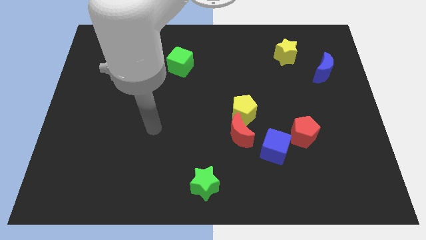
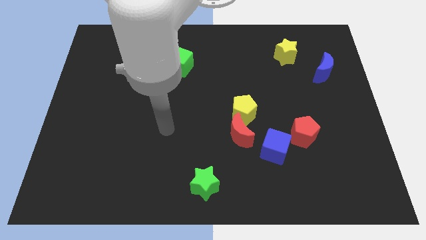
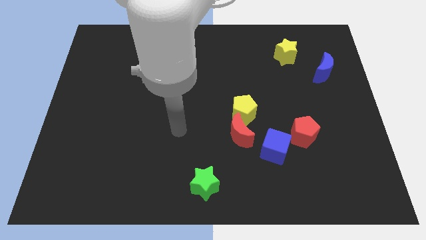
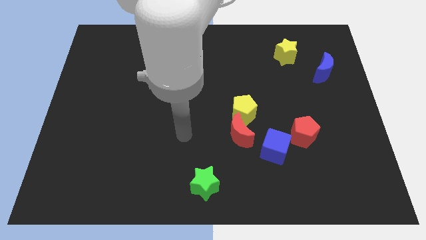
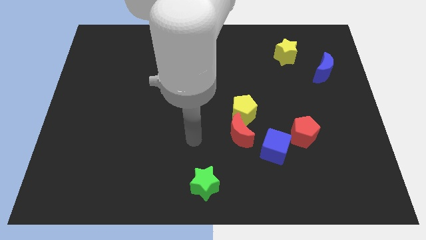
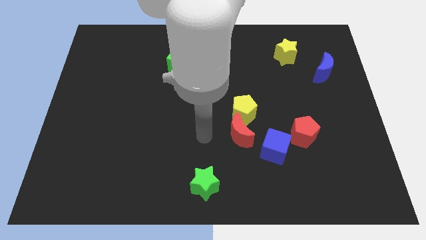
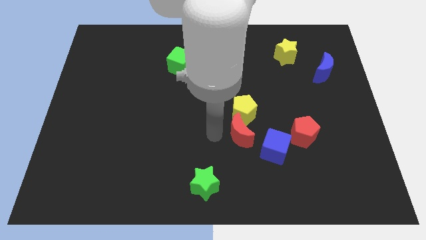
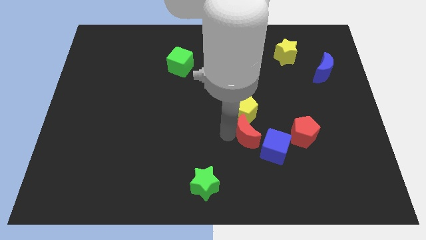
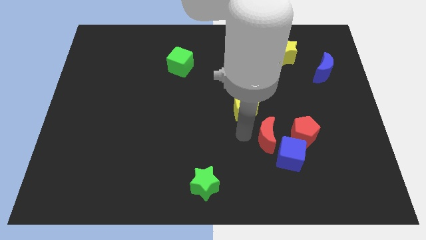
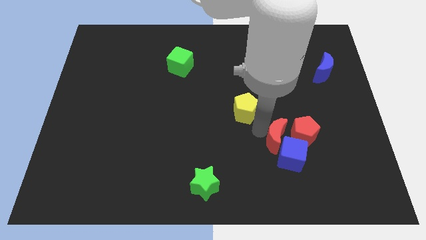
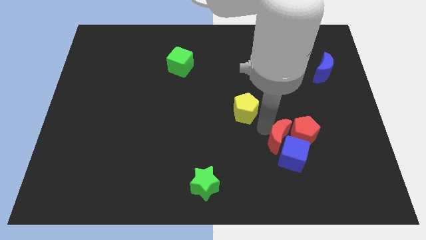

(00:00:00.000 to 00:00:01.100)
pull the yellow pentagon apart from the red moon

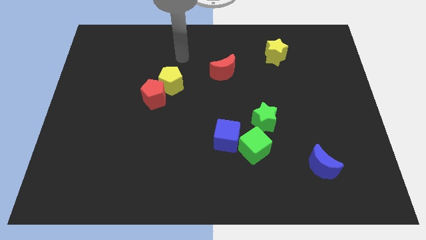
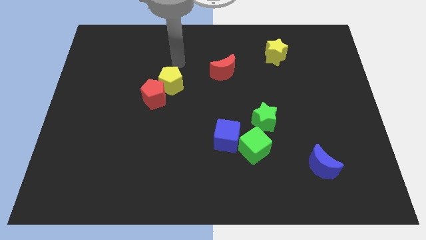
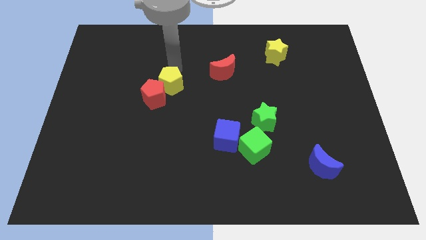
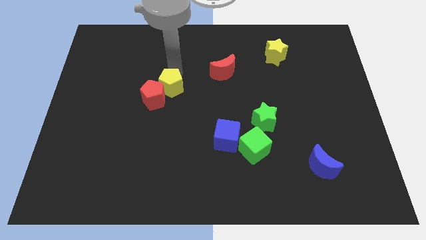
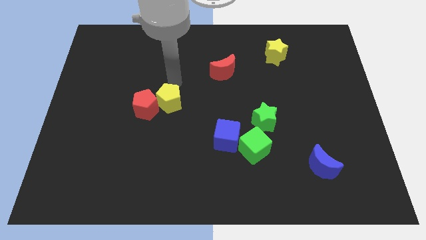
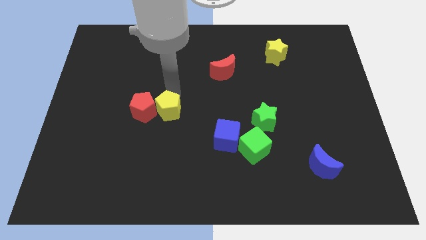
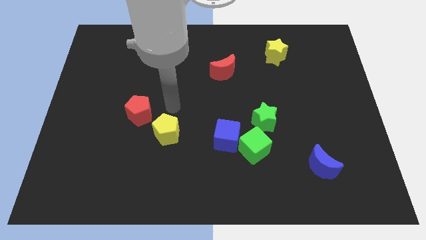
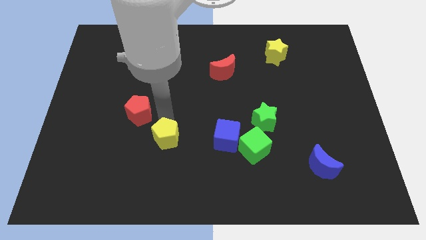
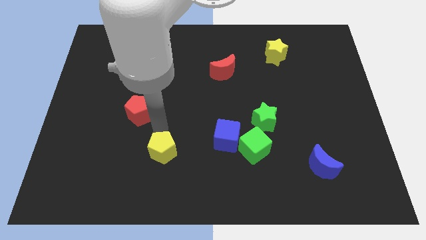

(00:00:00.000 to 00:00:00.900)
separate the red pentagon from the yellow pentagon

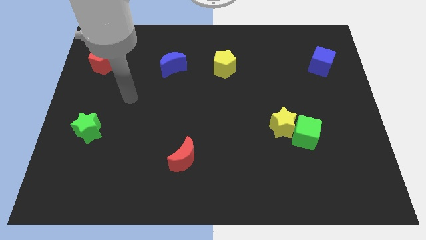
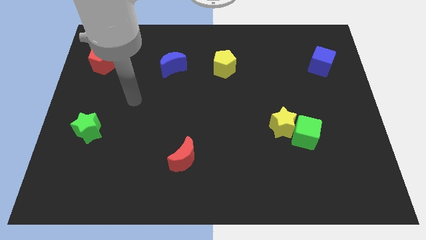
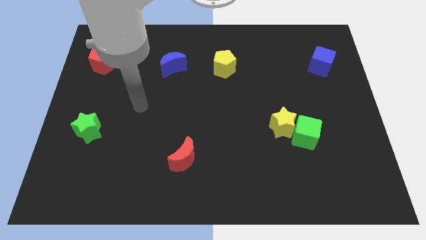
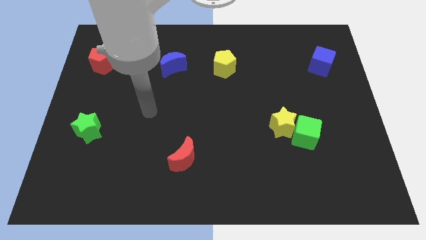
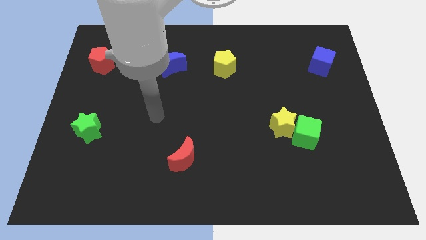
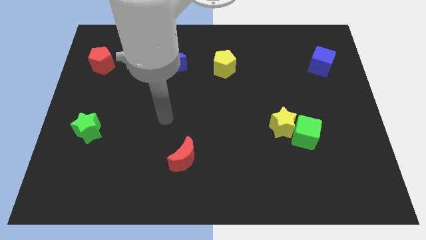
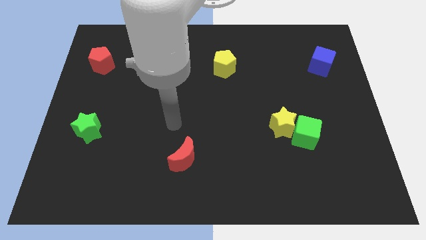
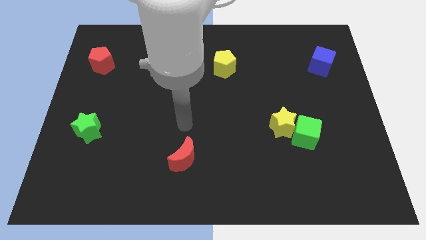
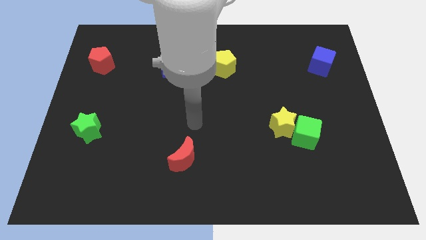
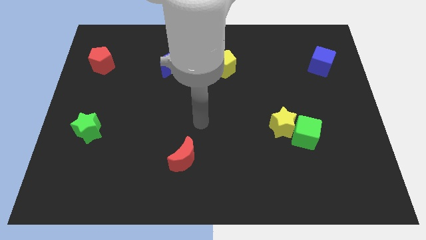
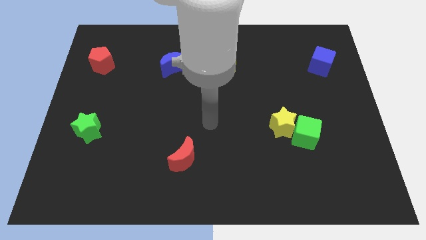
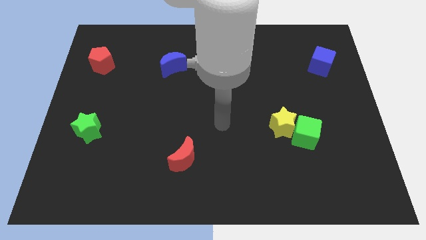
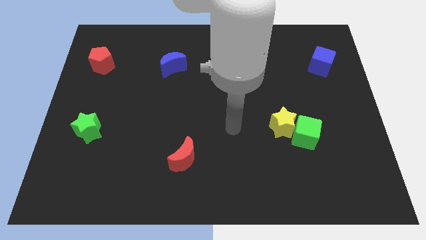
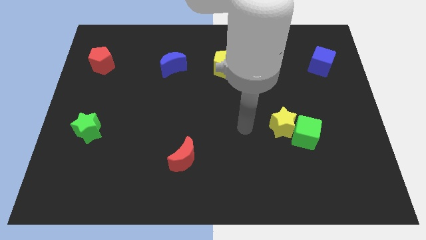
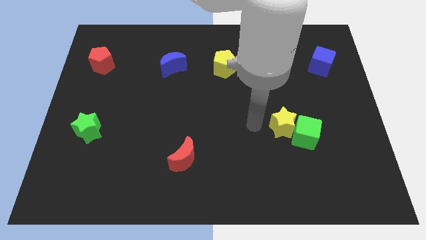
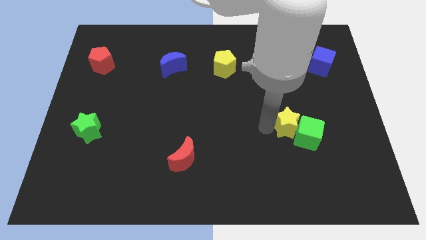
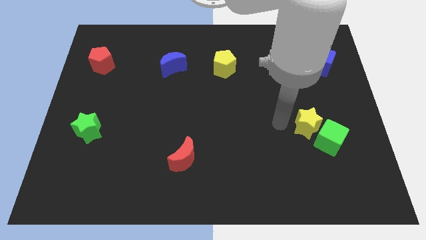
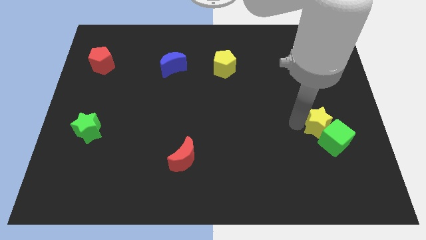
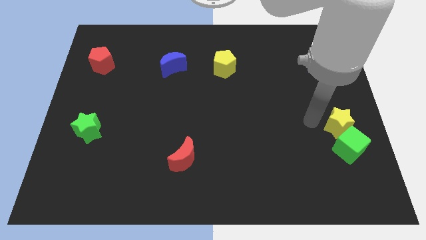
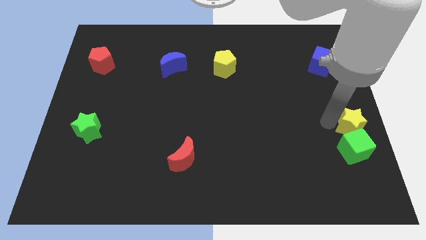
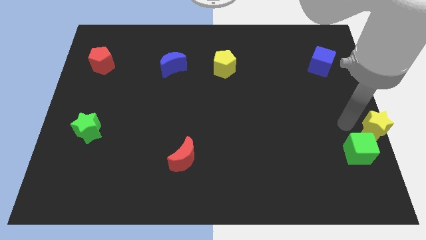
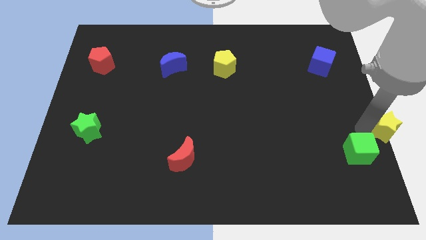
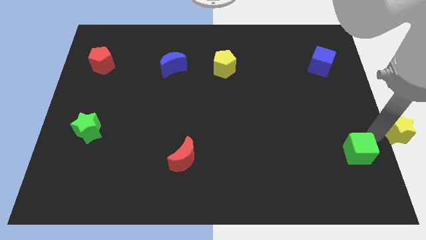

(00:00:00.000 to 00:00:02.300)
move the green cube away from the yellow star

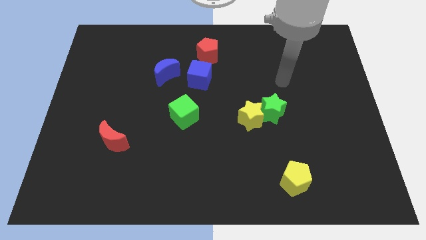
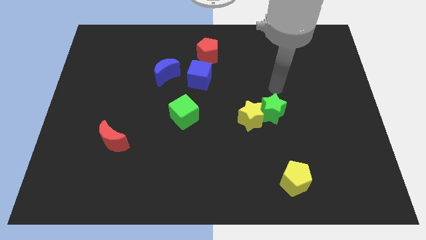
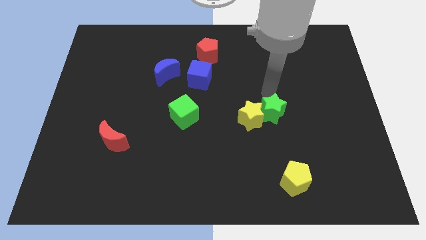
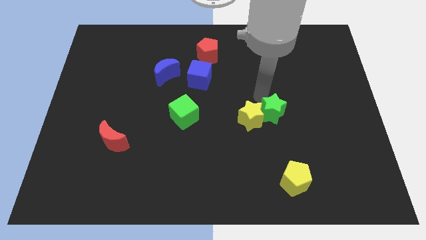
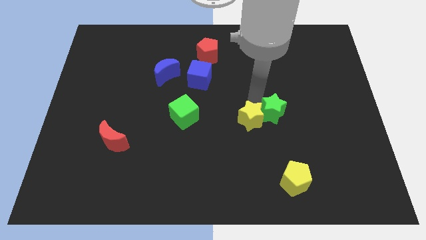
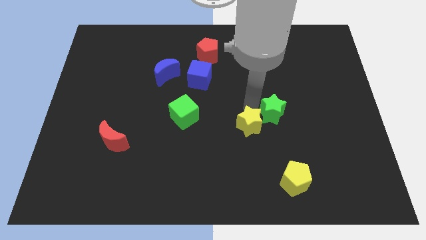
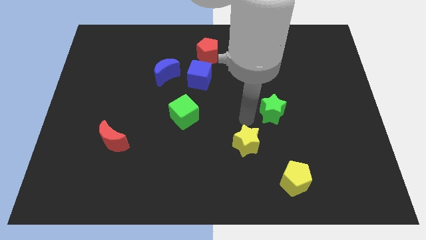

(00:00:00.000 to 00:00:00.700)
separate the green star from the yellow star

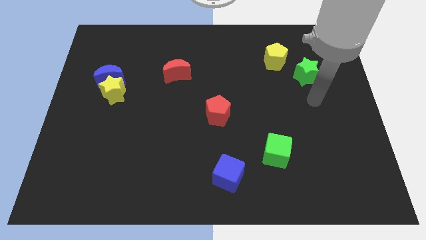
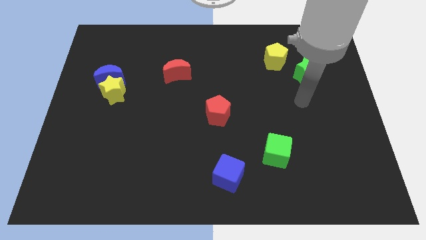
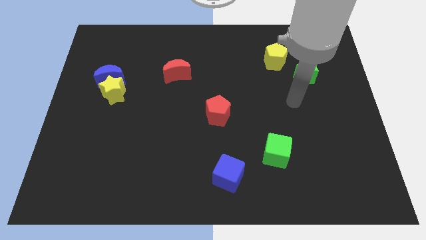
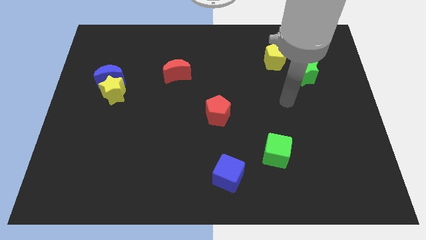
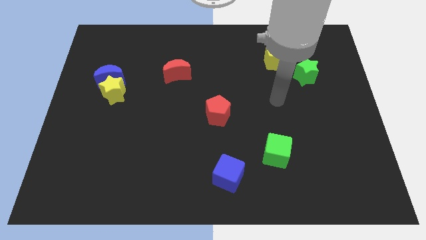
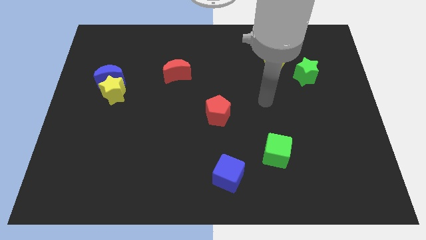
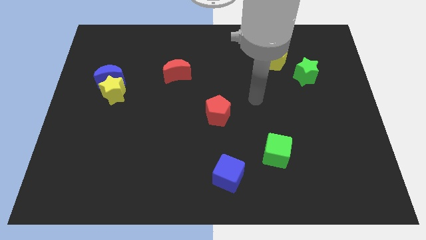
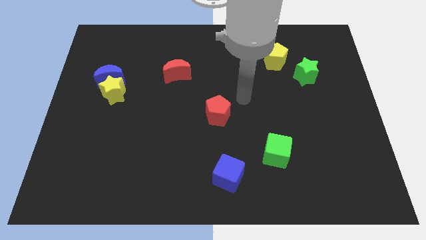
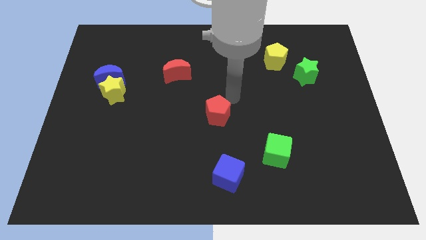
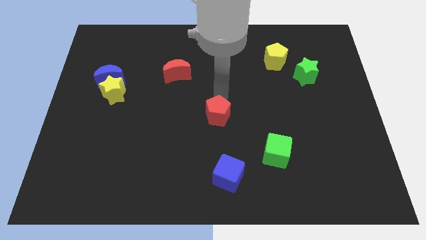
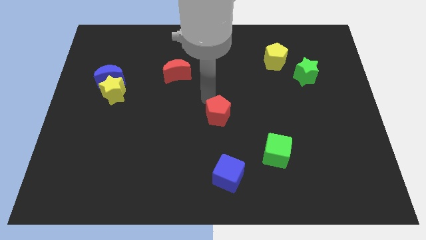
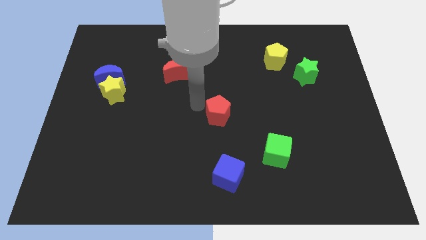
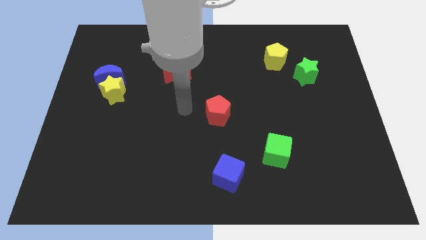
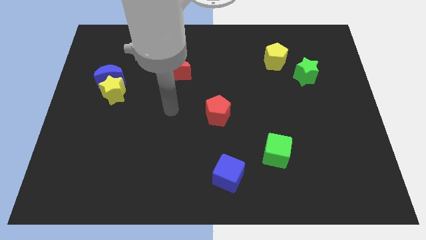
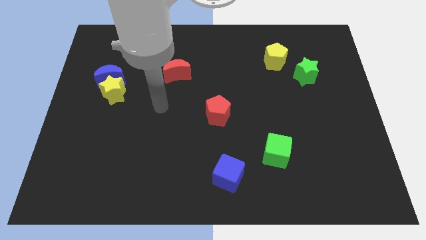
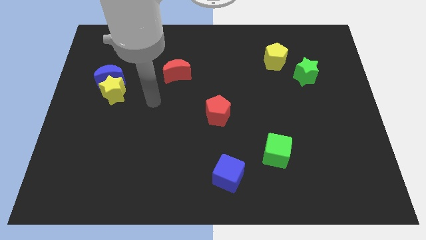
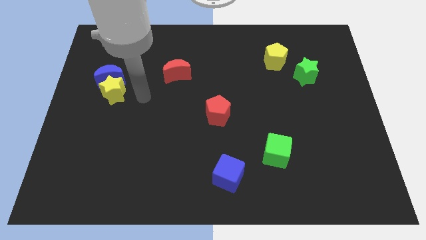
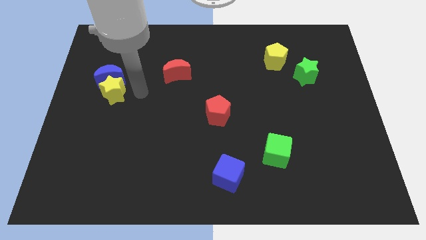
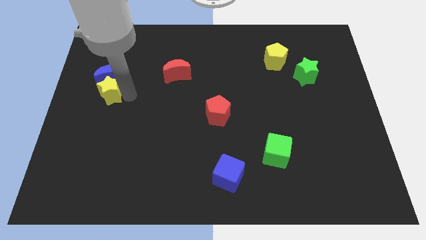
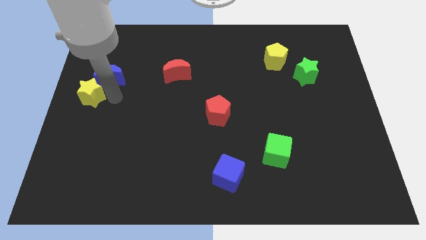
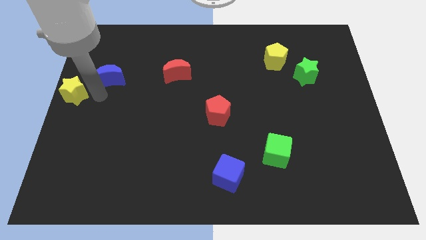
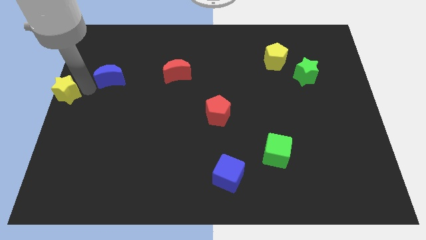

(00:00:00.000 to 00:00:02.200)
move the blue moon away from the yellow star

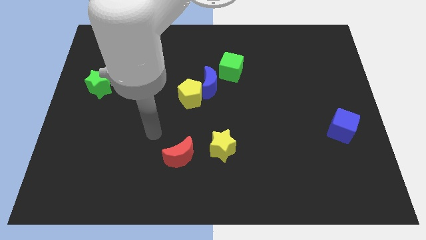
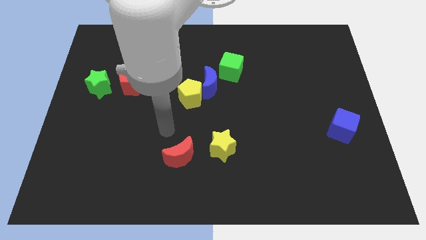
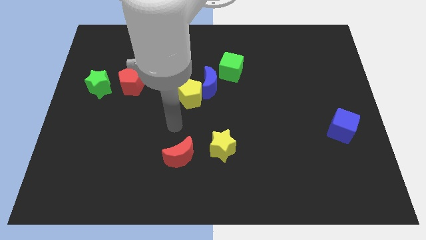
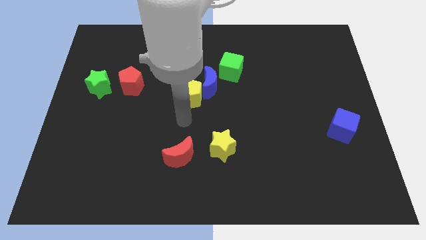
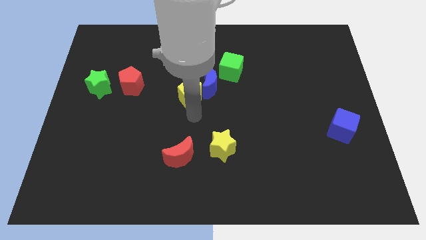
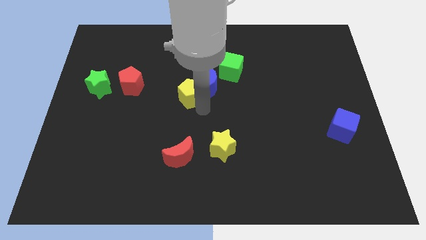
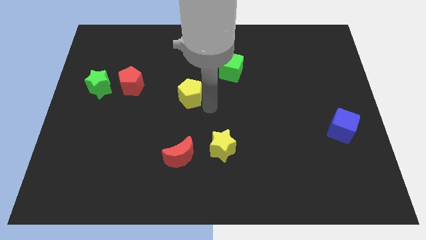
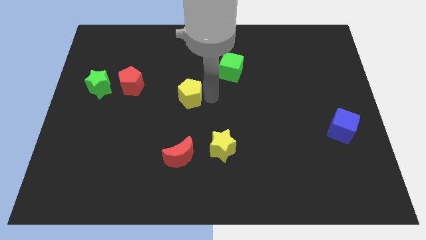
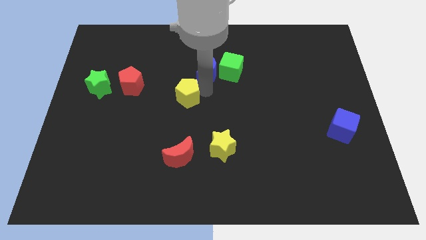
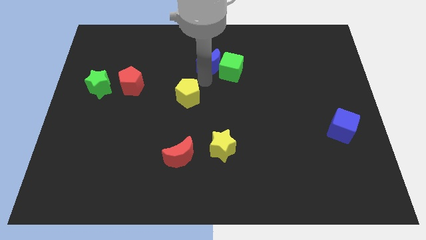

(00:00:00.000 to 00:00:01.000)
move the yellow pentagon away from the blue moon

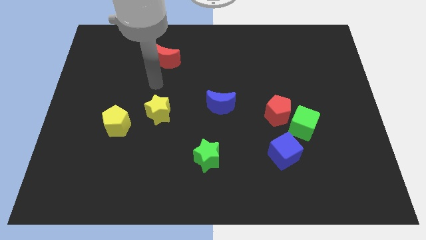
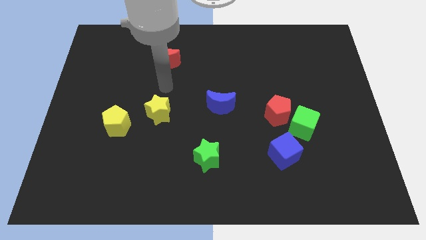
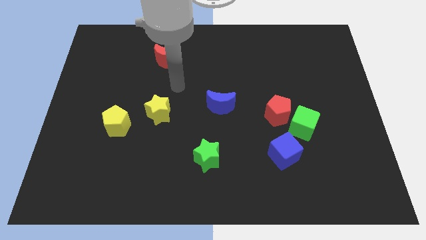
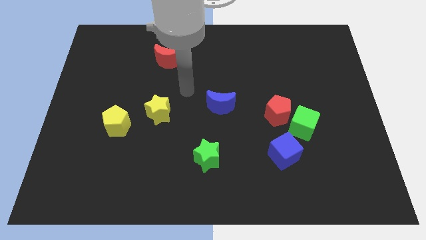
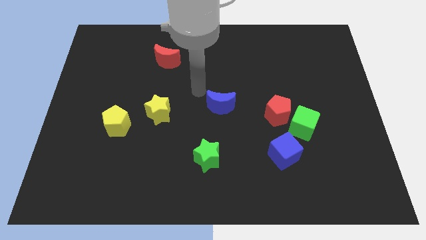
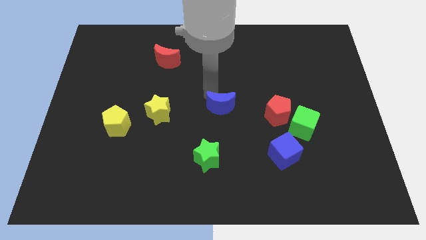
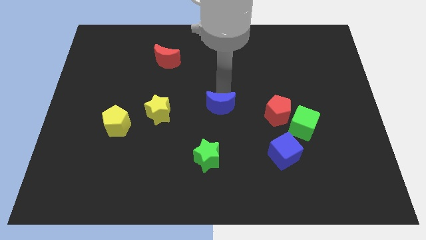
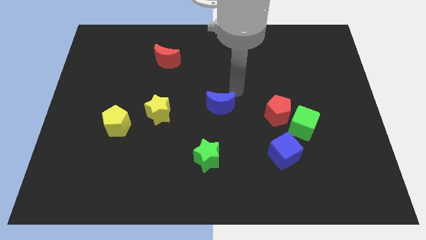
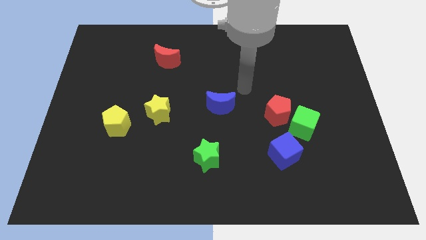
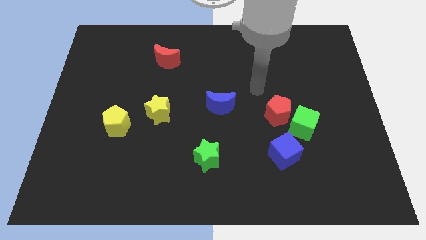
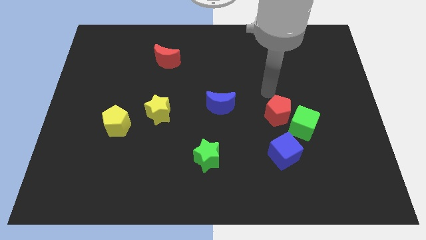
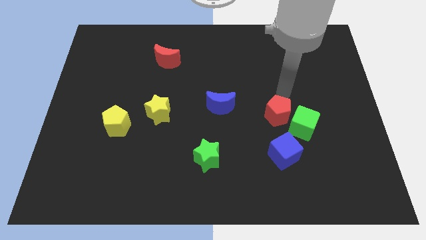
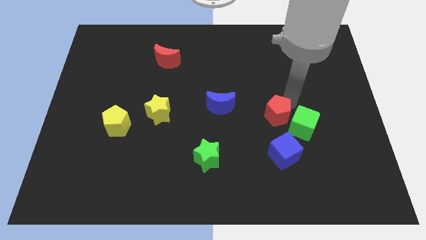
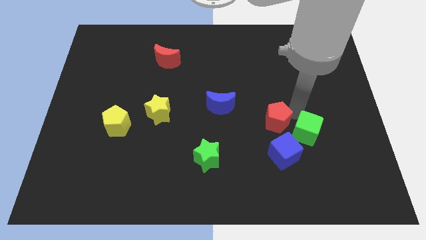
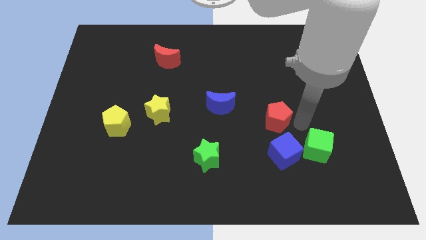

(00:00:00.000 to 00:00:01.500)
move the red pentagon away from the green cube
